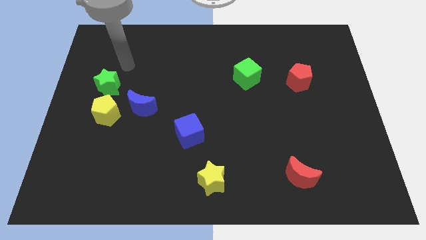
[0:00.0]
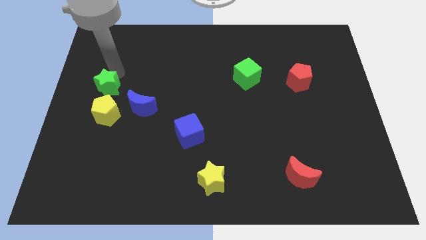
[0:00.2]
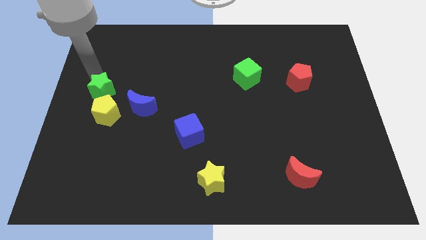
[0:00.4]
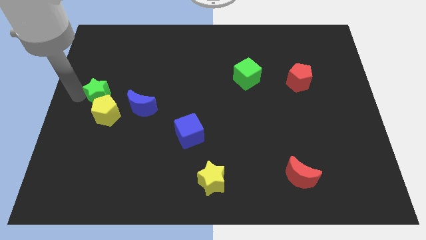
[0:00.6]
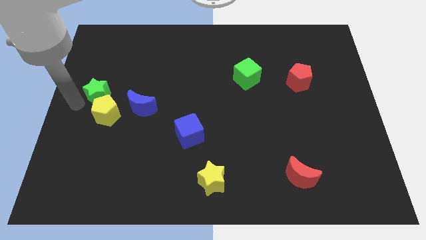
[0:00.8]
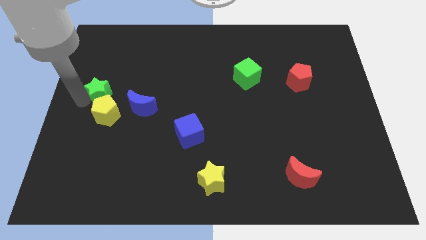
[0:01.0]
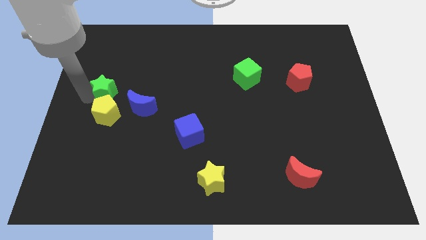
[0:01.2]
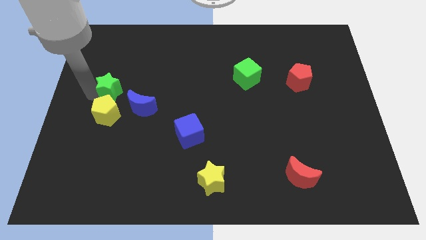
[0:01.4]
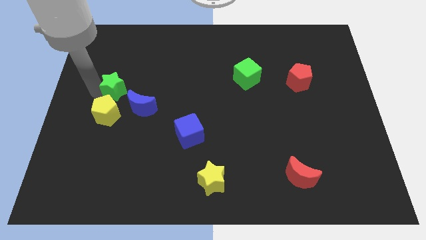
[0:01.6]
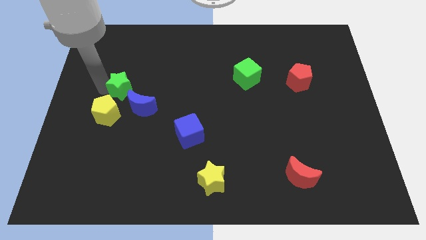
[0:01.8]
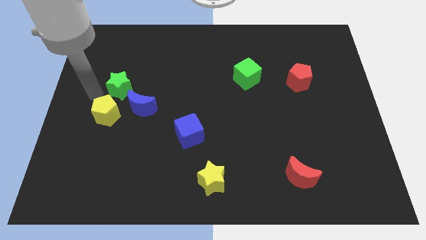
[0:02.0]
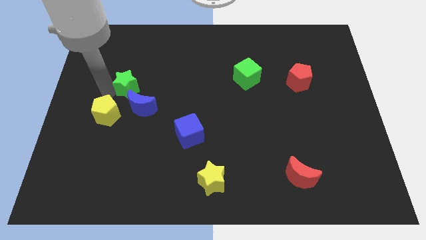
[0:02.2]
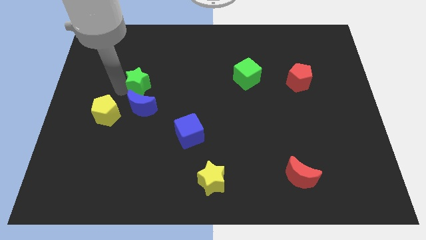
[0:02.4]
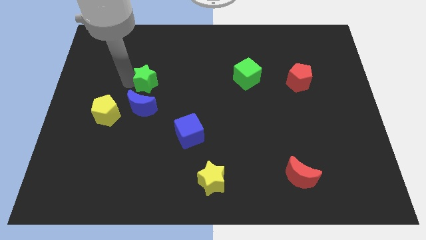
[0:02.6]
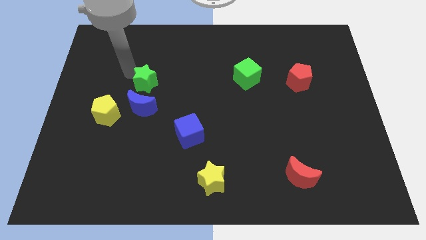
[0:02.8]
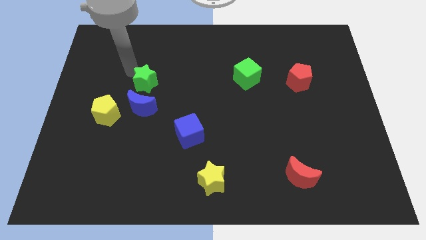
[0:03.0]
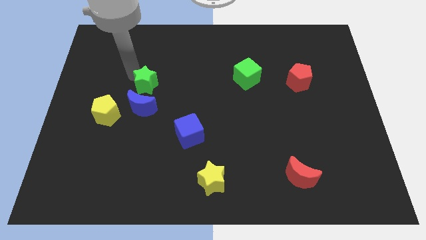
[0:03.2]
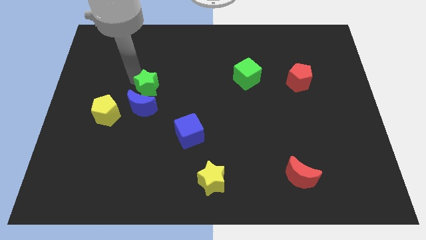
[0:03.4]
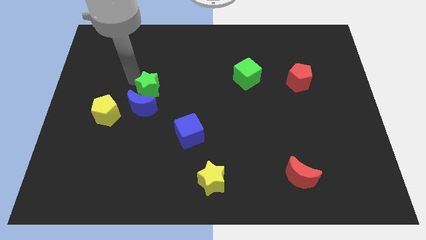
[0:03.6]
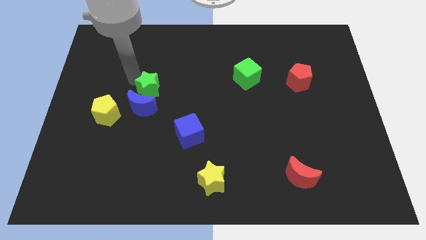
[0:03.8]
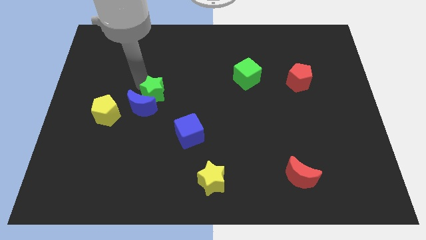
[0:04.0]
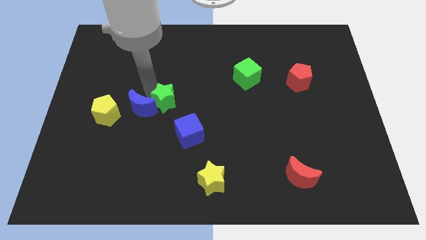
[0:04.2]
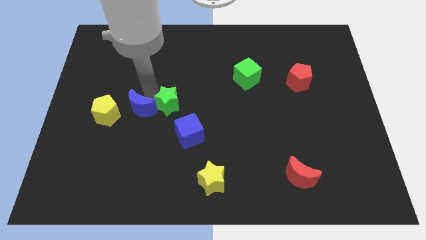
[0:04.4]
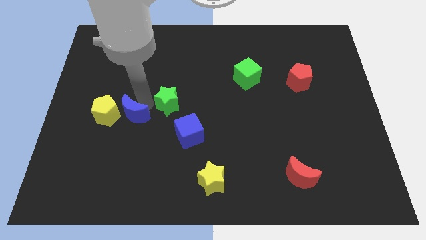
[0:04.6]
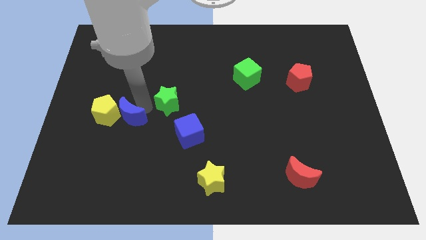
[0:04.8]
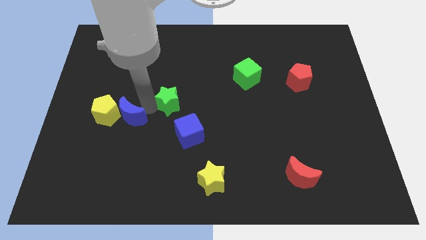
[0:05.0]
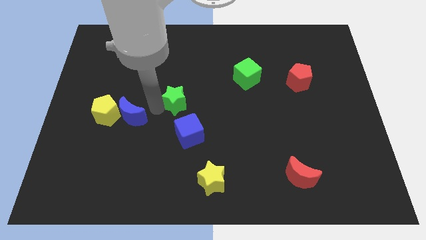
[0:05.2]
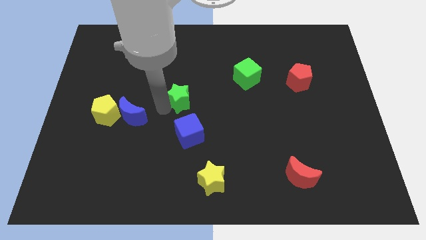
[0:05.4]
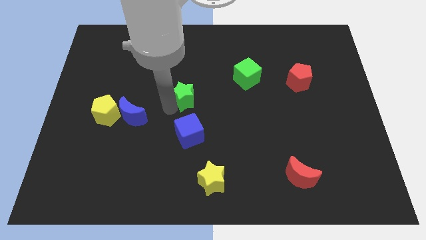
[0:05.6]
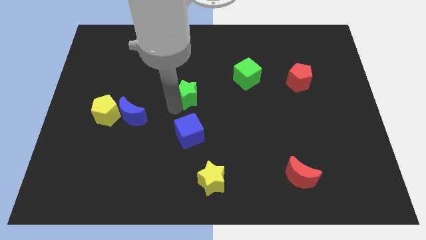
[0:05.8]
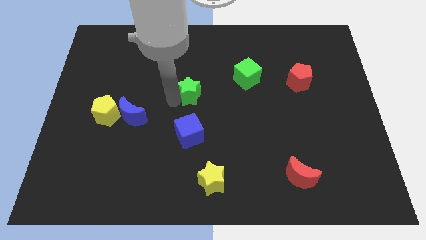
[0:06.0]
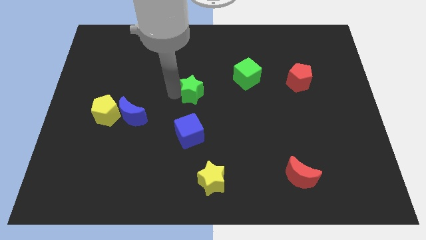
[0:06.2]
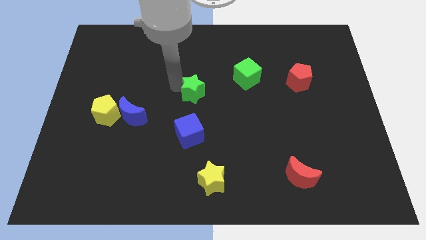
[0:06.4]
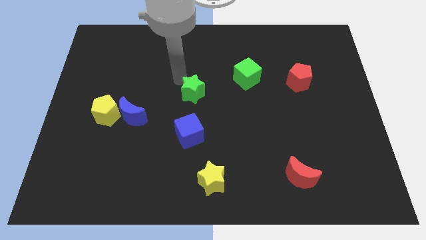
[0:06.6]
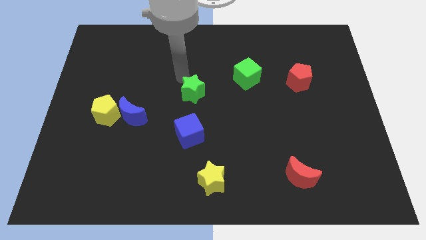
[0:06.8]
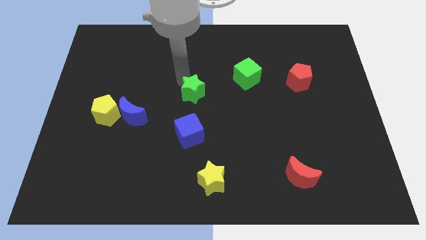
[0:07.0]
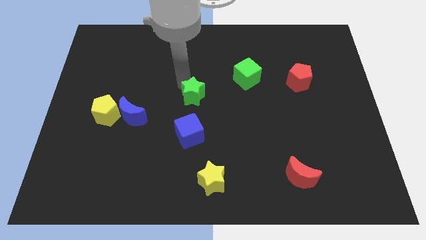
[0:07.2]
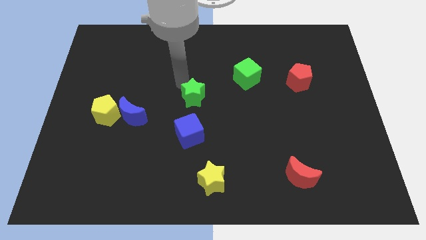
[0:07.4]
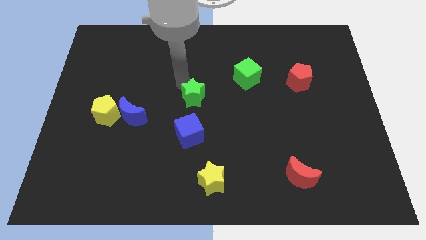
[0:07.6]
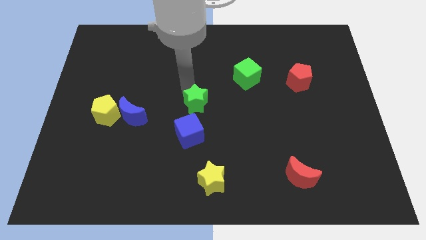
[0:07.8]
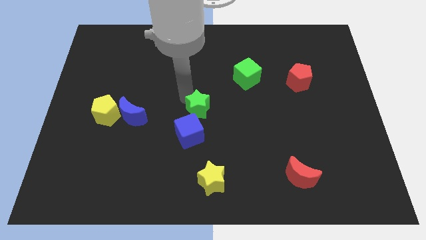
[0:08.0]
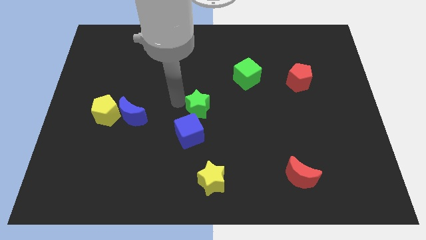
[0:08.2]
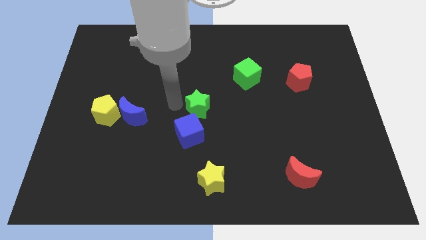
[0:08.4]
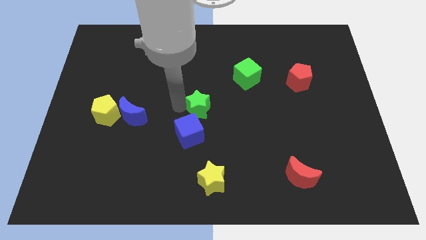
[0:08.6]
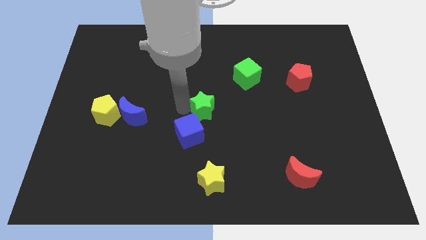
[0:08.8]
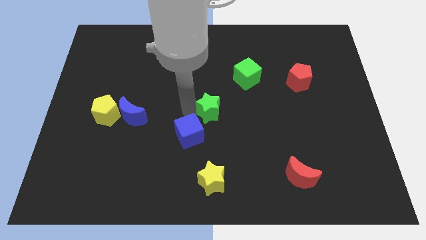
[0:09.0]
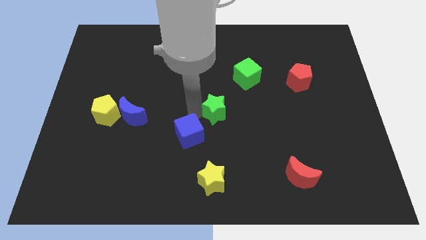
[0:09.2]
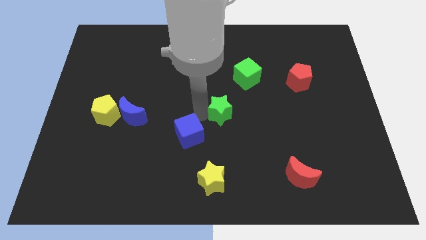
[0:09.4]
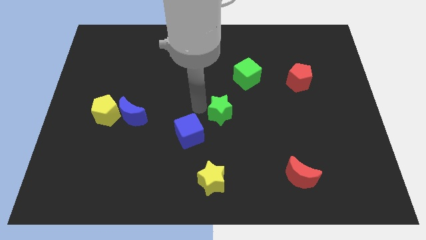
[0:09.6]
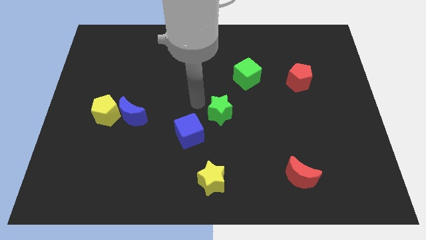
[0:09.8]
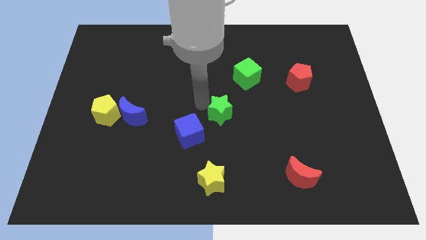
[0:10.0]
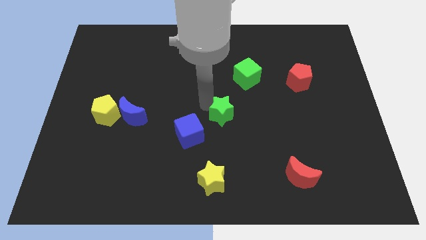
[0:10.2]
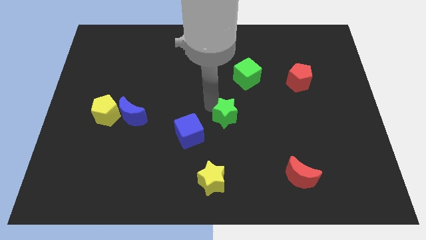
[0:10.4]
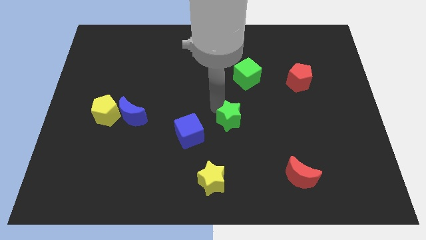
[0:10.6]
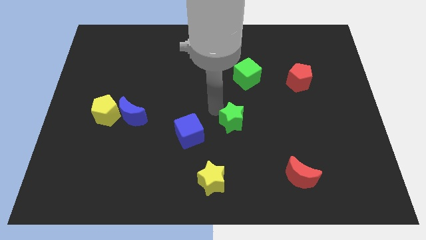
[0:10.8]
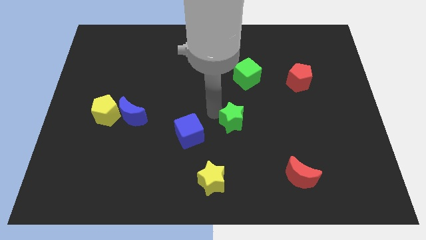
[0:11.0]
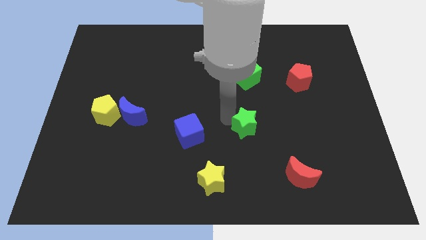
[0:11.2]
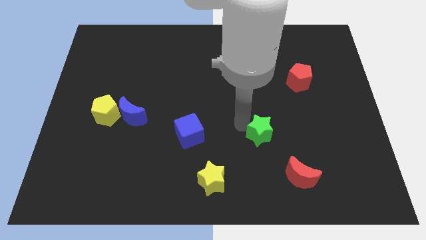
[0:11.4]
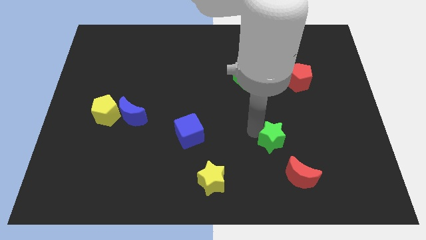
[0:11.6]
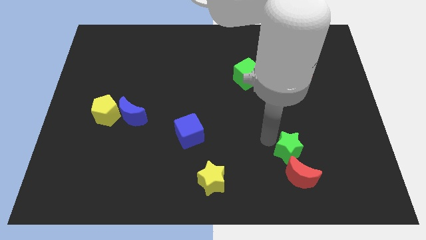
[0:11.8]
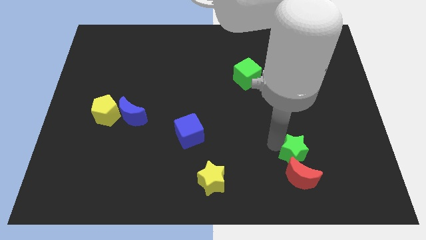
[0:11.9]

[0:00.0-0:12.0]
move the green star to the top right side of the red moon

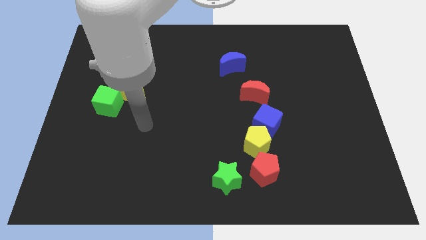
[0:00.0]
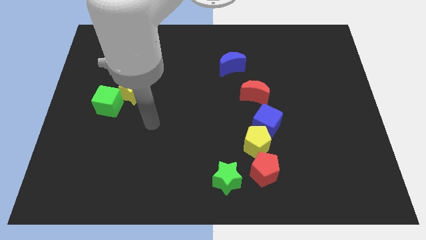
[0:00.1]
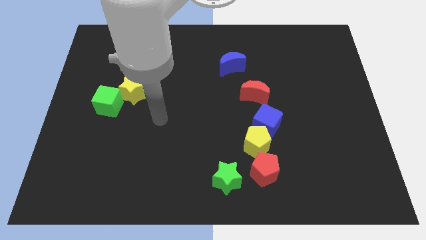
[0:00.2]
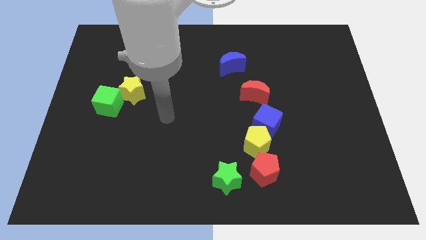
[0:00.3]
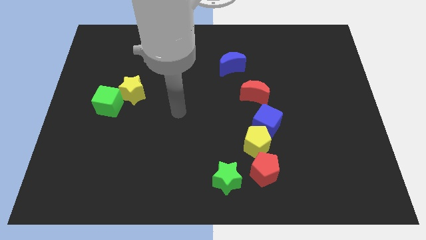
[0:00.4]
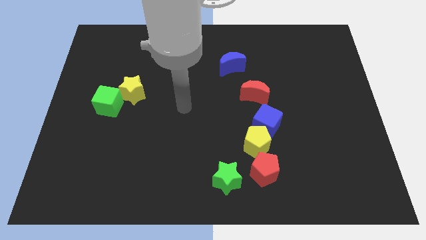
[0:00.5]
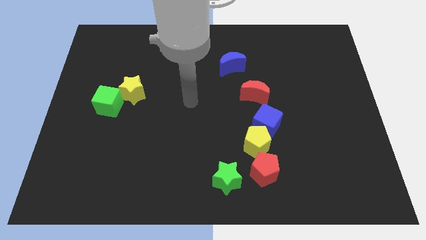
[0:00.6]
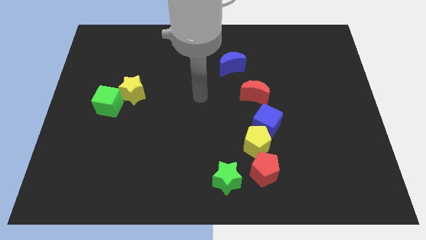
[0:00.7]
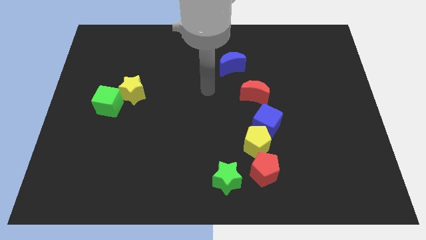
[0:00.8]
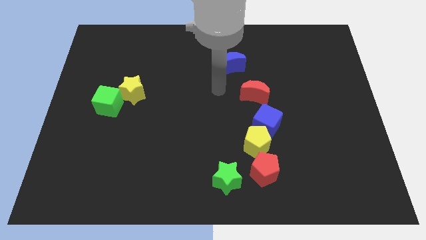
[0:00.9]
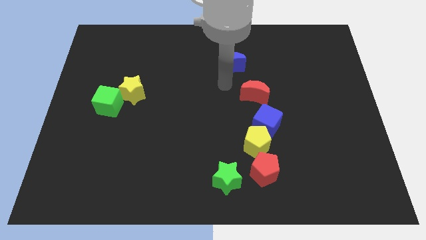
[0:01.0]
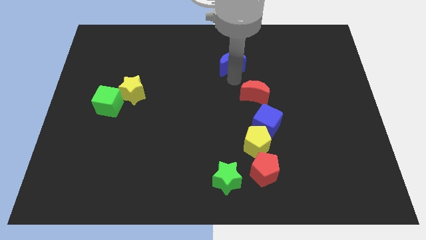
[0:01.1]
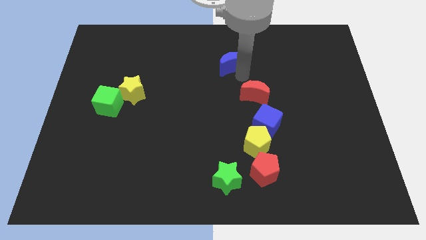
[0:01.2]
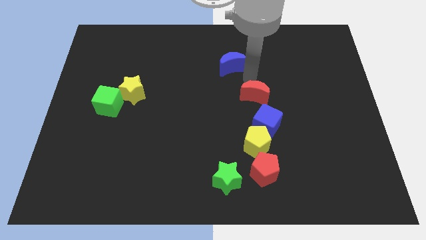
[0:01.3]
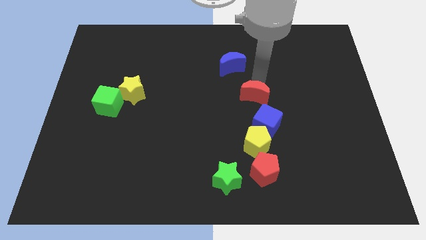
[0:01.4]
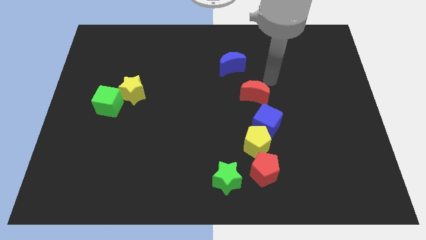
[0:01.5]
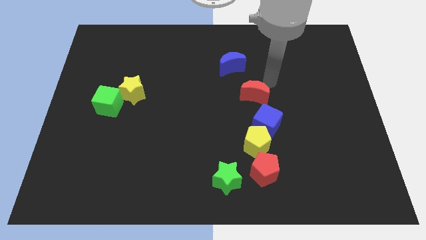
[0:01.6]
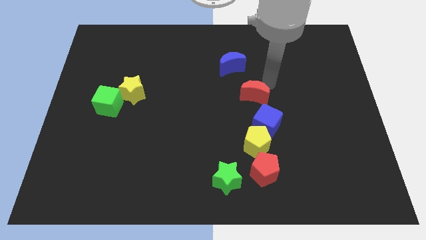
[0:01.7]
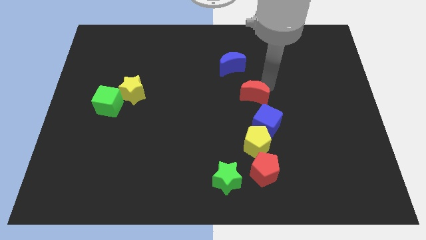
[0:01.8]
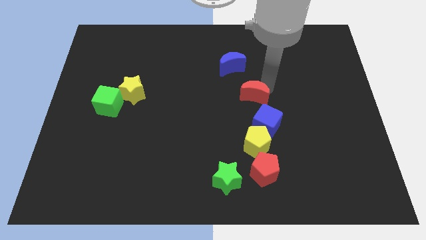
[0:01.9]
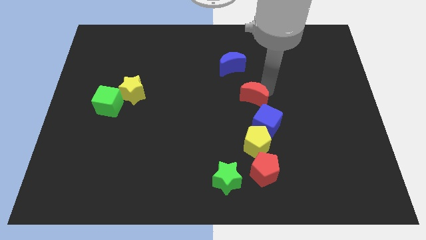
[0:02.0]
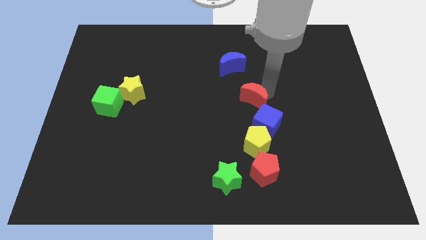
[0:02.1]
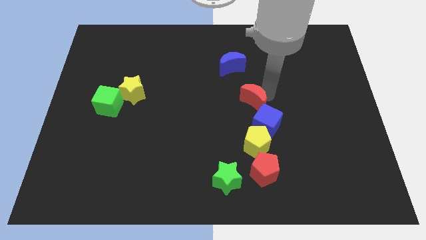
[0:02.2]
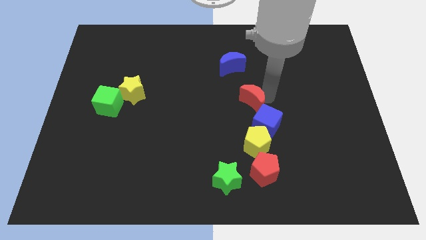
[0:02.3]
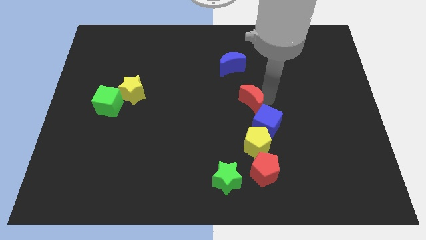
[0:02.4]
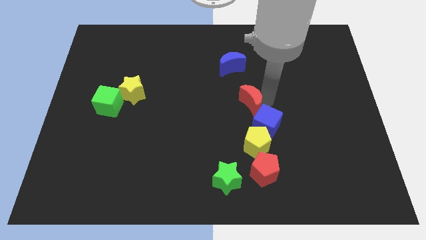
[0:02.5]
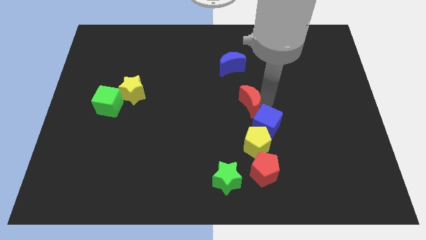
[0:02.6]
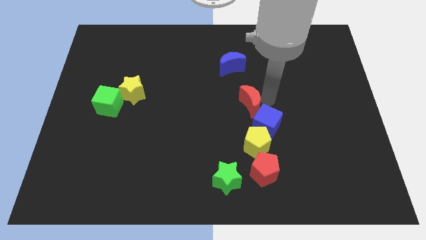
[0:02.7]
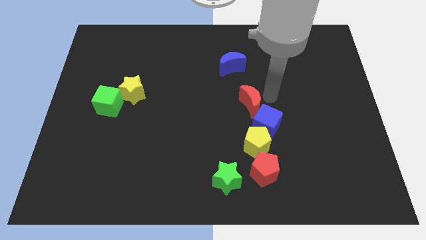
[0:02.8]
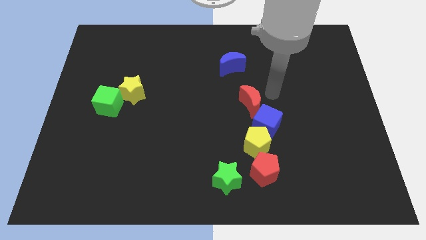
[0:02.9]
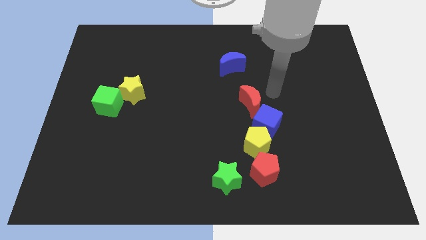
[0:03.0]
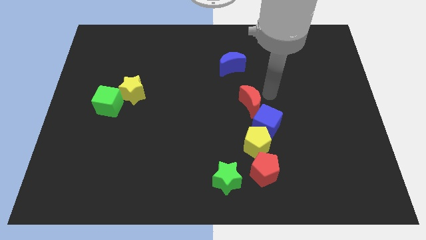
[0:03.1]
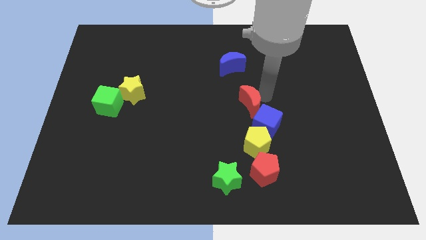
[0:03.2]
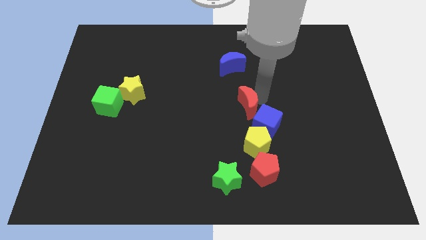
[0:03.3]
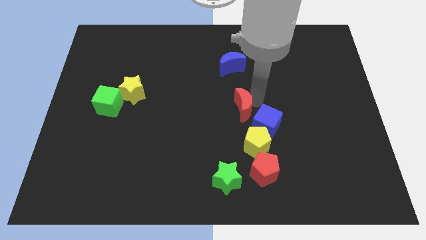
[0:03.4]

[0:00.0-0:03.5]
push the red moon to the left of the blue cube
